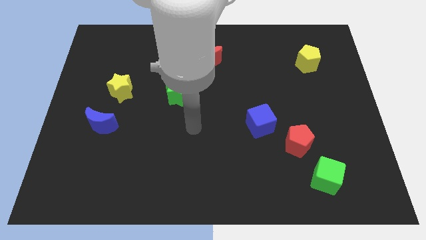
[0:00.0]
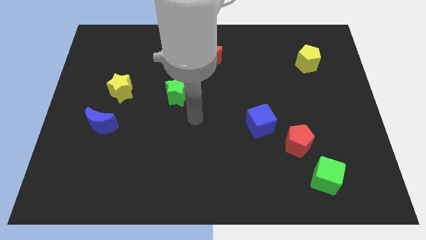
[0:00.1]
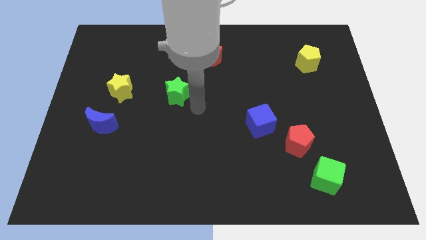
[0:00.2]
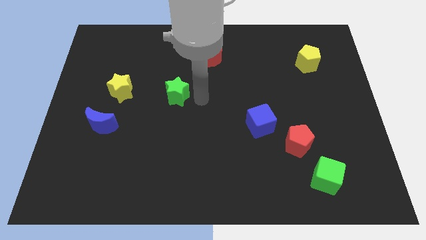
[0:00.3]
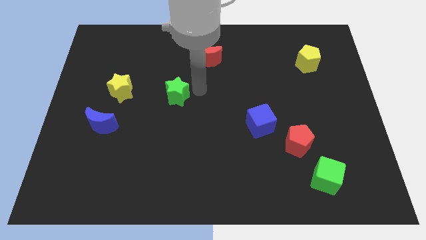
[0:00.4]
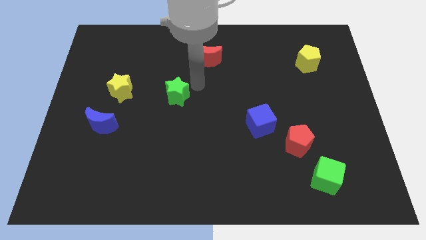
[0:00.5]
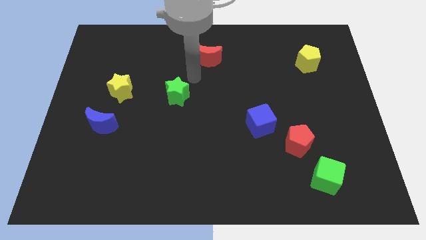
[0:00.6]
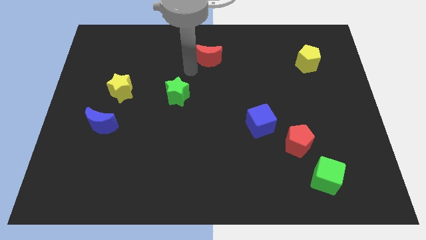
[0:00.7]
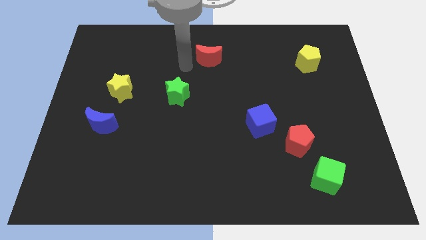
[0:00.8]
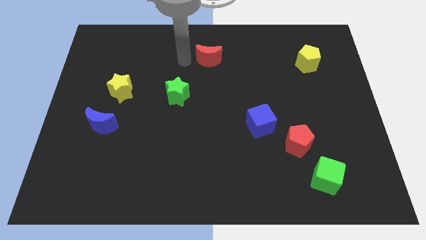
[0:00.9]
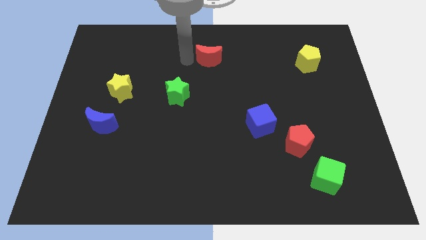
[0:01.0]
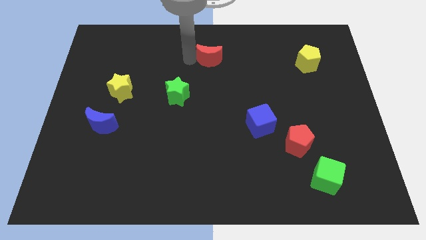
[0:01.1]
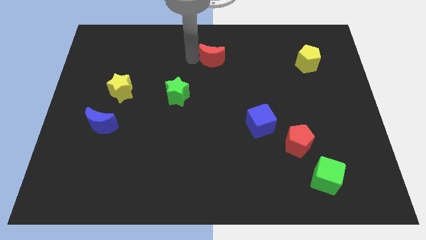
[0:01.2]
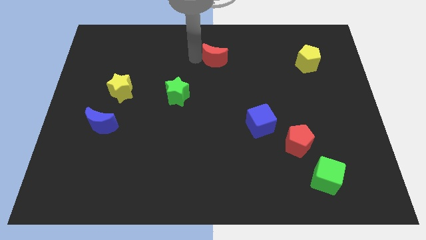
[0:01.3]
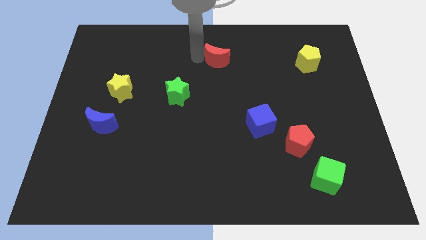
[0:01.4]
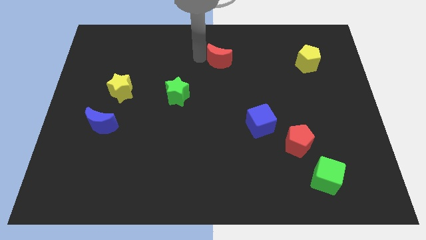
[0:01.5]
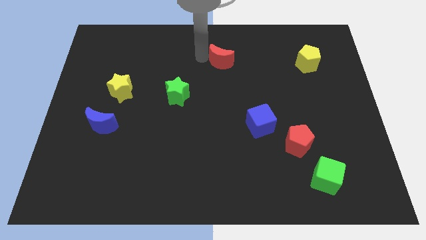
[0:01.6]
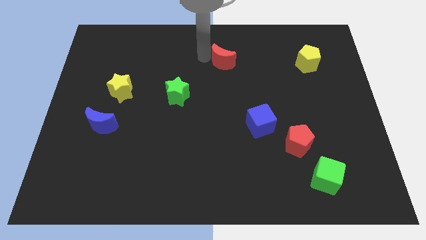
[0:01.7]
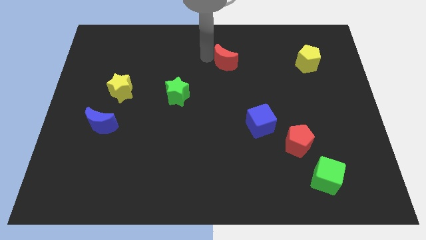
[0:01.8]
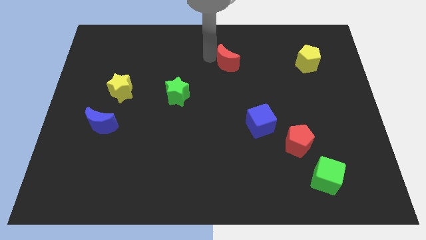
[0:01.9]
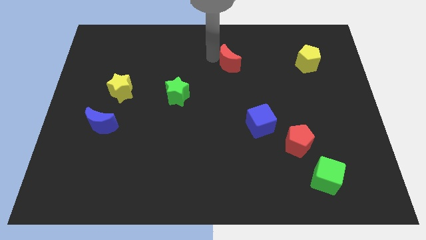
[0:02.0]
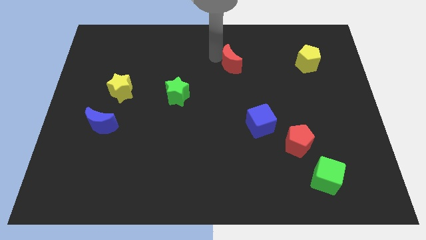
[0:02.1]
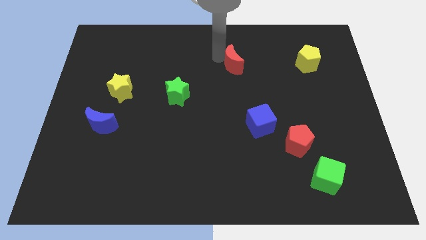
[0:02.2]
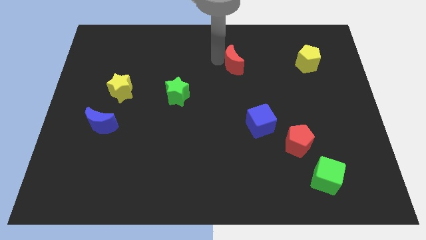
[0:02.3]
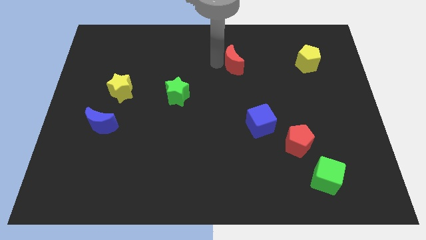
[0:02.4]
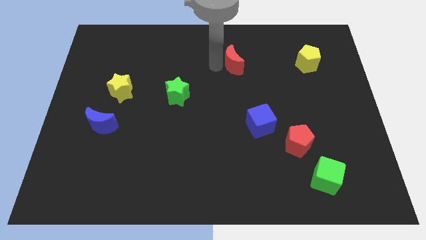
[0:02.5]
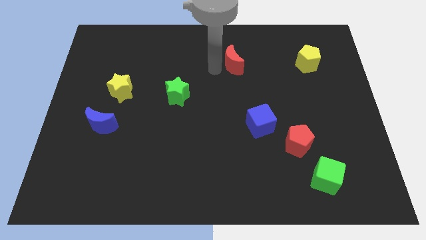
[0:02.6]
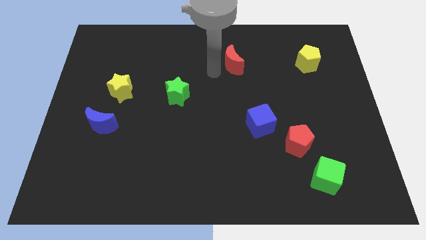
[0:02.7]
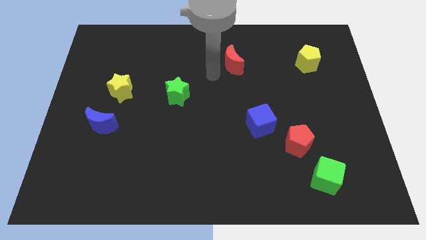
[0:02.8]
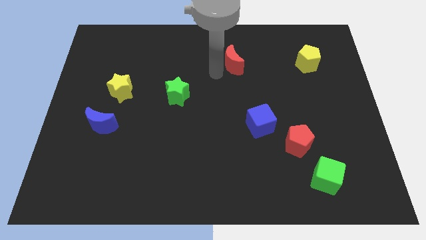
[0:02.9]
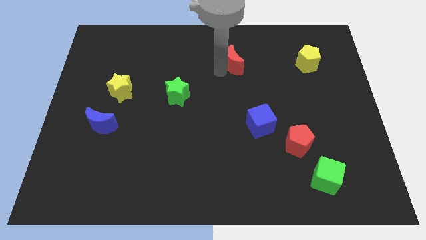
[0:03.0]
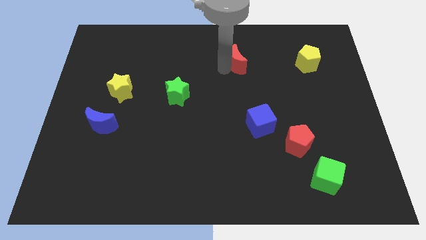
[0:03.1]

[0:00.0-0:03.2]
slightly move the red moon right

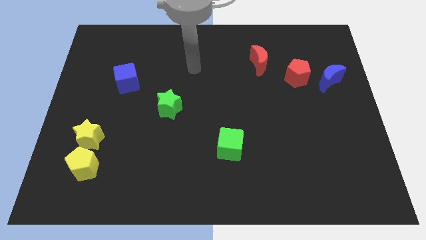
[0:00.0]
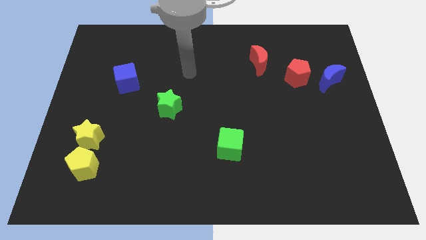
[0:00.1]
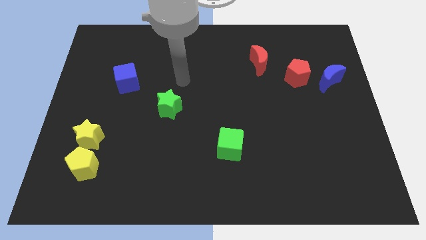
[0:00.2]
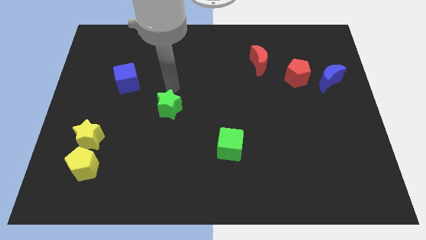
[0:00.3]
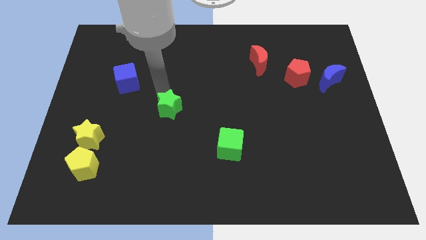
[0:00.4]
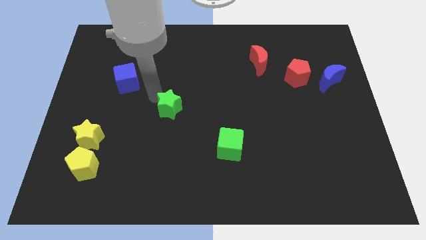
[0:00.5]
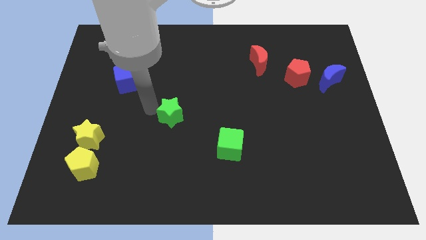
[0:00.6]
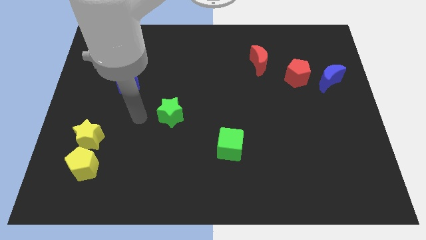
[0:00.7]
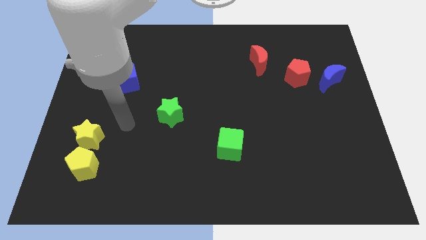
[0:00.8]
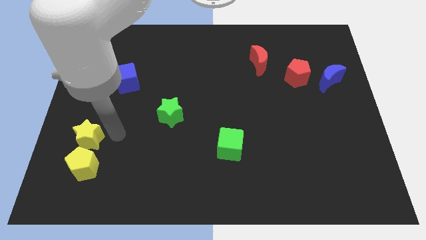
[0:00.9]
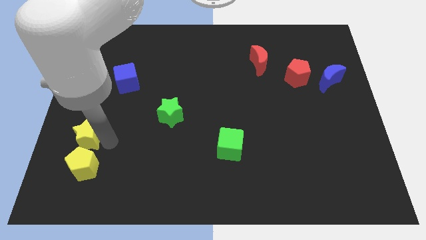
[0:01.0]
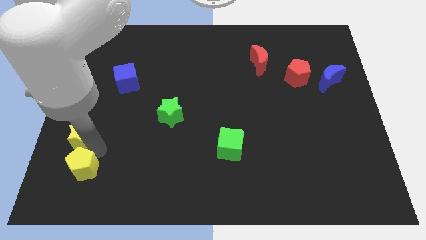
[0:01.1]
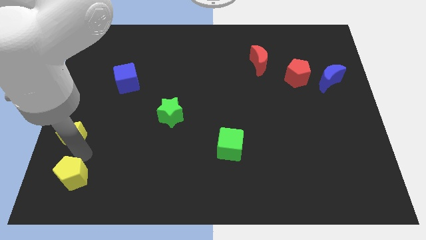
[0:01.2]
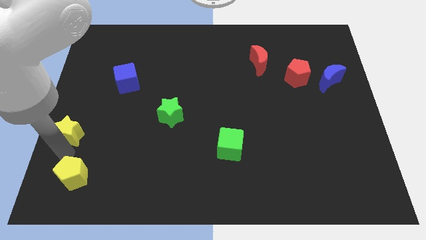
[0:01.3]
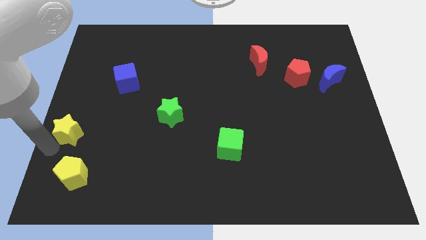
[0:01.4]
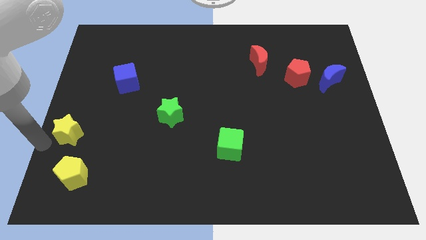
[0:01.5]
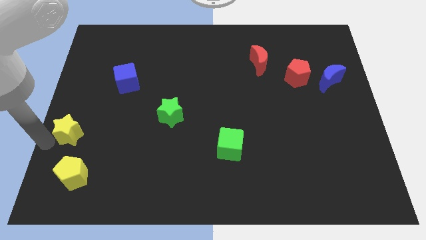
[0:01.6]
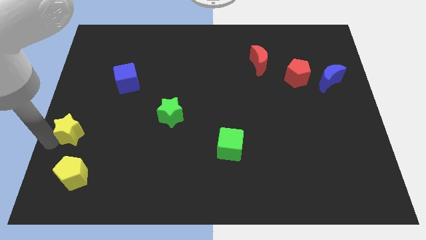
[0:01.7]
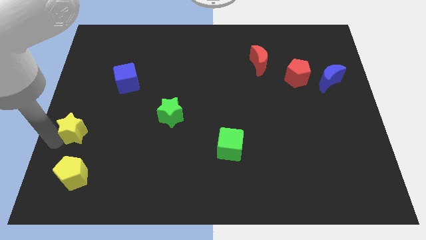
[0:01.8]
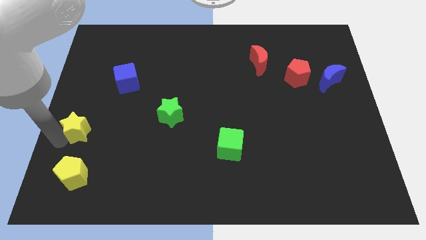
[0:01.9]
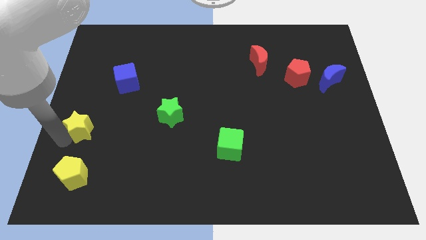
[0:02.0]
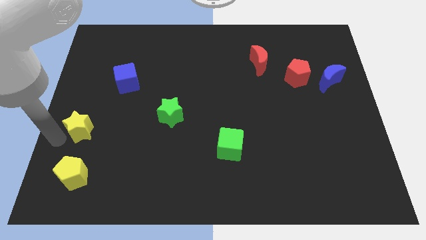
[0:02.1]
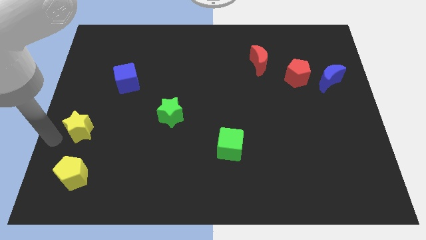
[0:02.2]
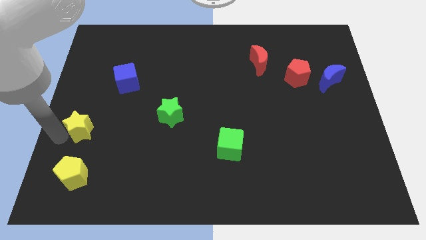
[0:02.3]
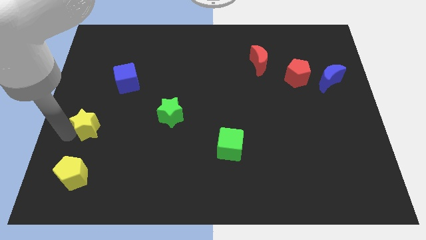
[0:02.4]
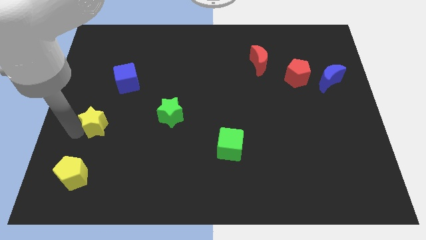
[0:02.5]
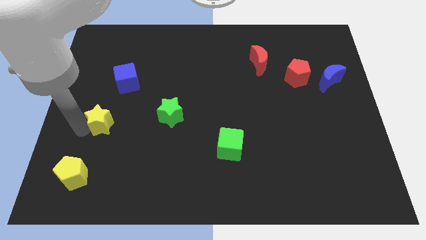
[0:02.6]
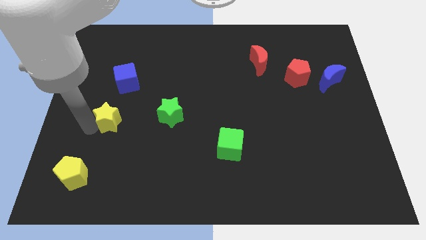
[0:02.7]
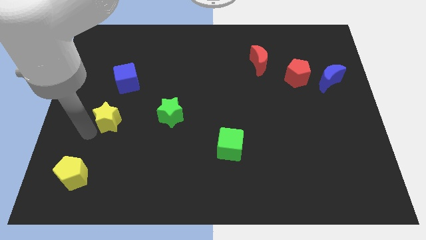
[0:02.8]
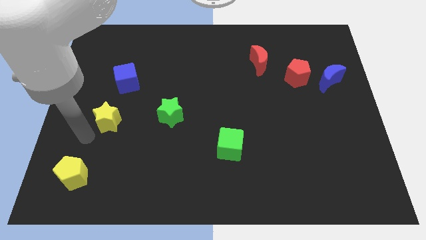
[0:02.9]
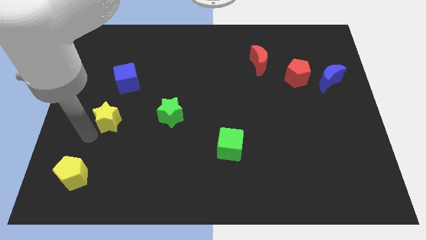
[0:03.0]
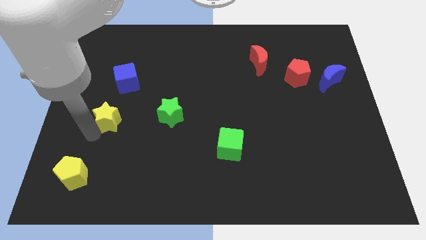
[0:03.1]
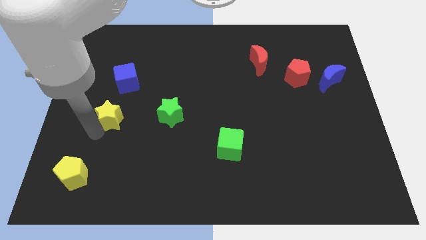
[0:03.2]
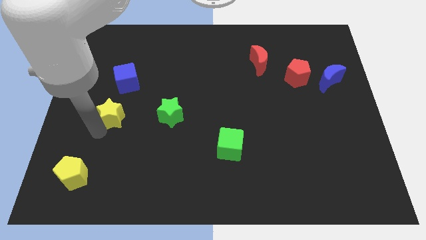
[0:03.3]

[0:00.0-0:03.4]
push the yellow star upwards and then to the right a bit

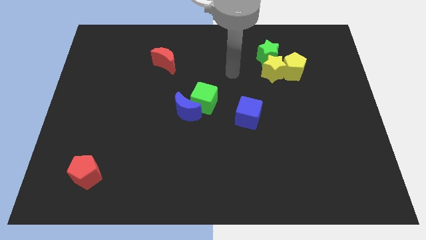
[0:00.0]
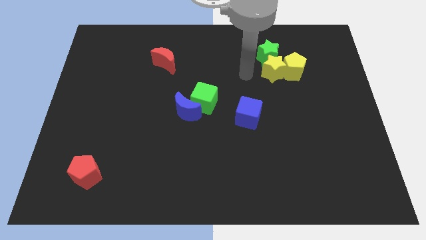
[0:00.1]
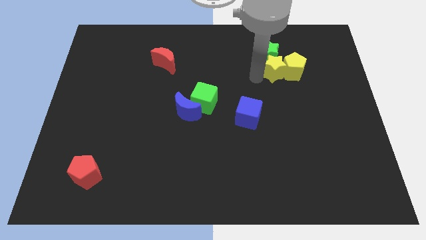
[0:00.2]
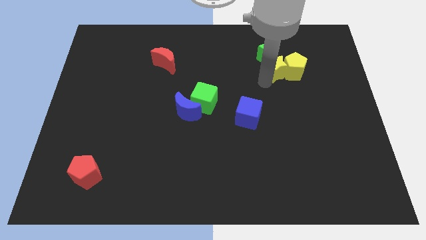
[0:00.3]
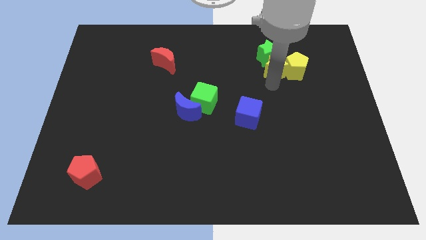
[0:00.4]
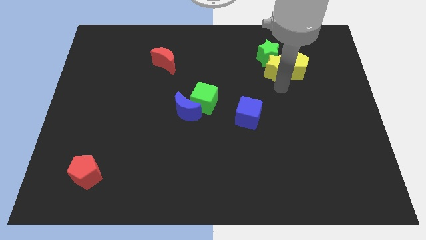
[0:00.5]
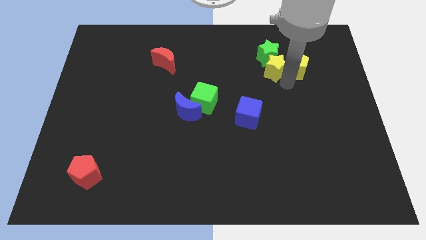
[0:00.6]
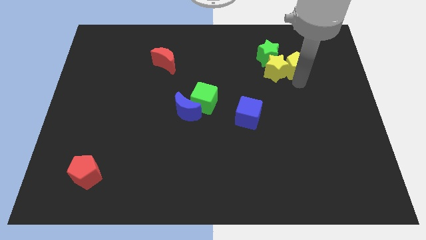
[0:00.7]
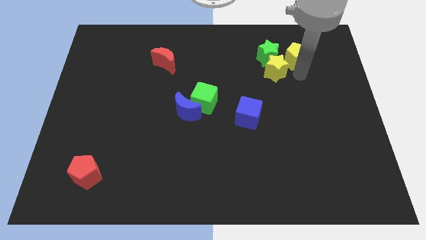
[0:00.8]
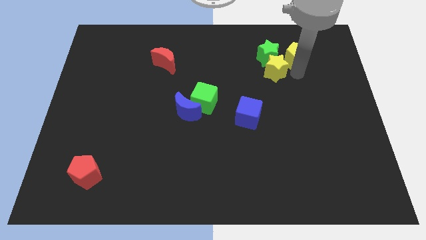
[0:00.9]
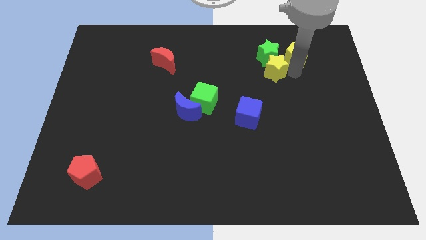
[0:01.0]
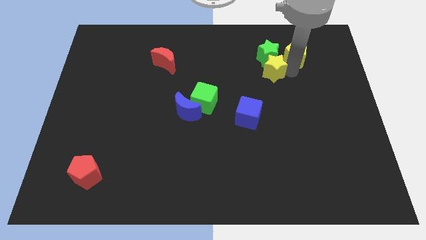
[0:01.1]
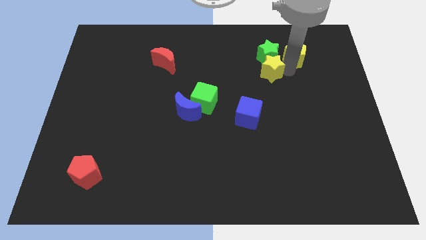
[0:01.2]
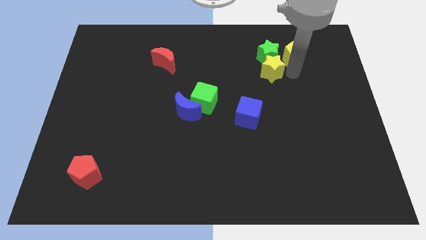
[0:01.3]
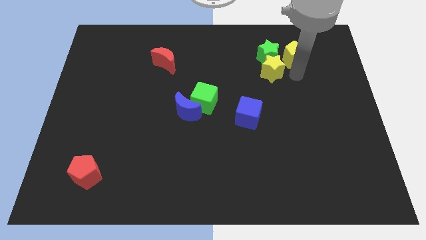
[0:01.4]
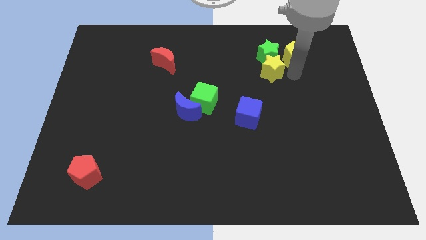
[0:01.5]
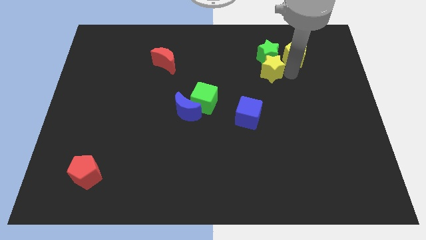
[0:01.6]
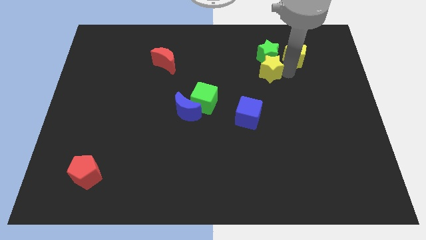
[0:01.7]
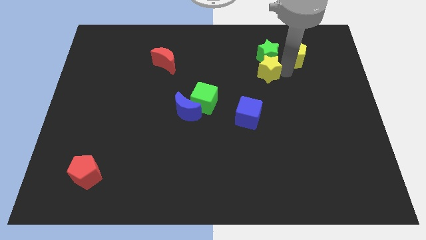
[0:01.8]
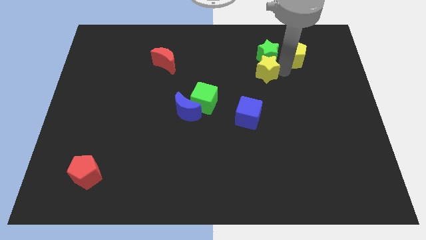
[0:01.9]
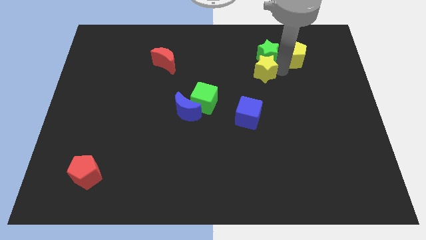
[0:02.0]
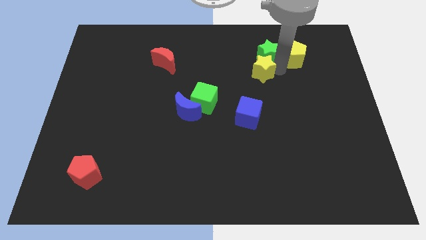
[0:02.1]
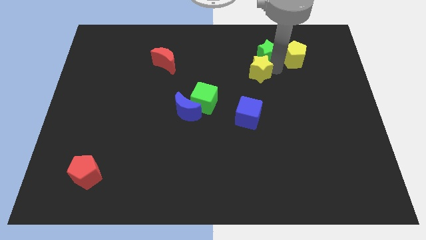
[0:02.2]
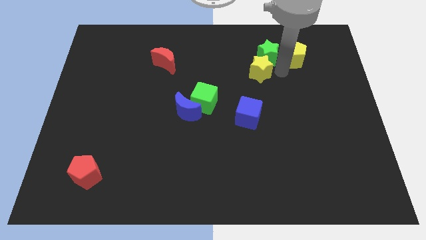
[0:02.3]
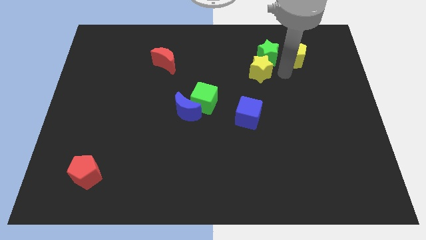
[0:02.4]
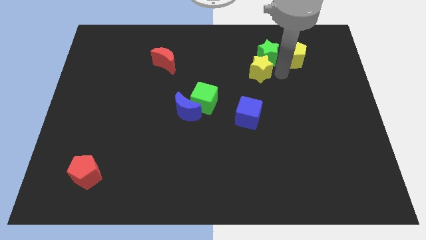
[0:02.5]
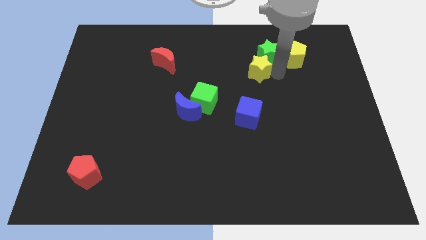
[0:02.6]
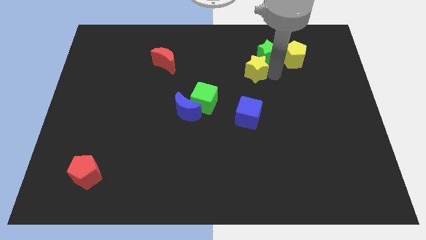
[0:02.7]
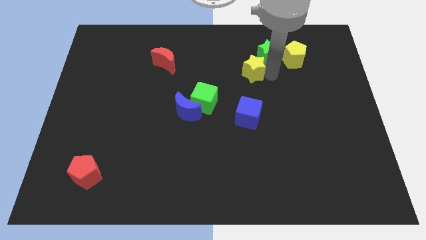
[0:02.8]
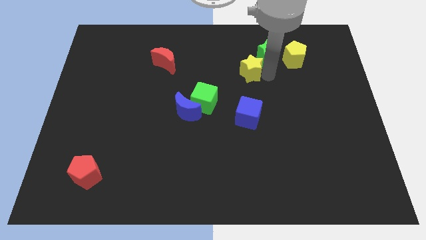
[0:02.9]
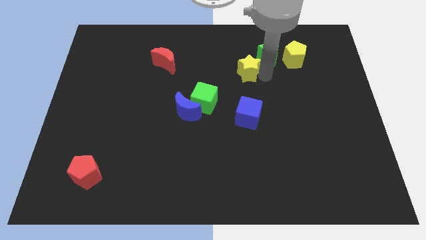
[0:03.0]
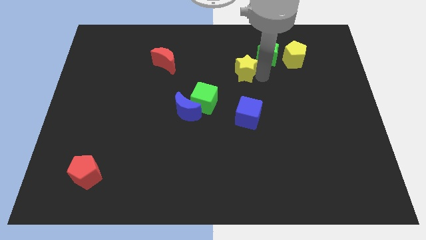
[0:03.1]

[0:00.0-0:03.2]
slightly move the yellow star left
